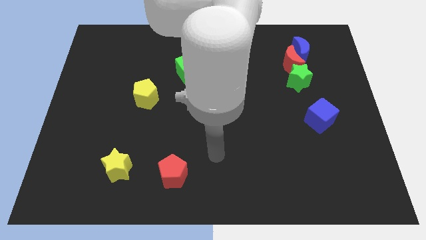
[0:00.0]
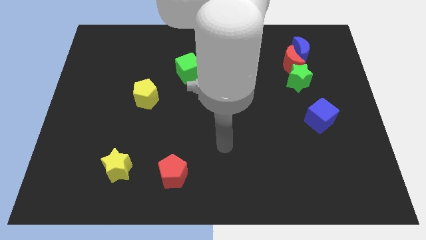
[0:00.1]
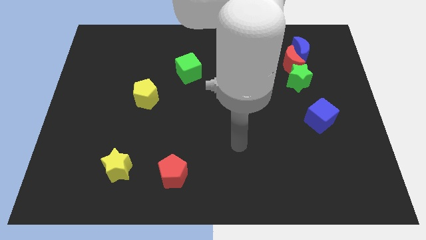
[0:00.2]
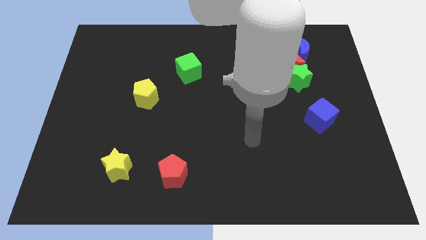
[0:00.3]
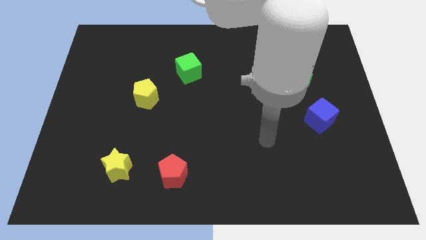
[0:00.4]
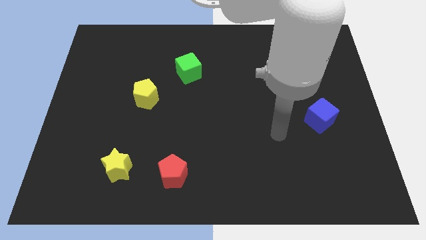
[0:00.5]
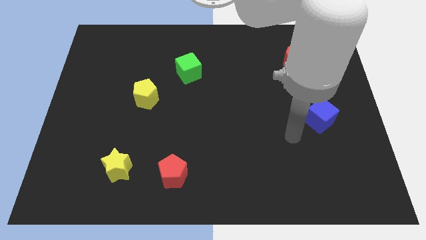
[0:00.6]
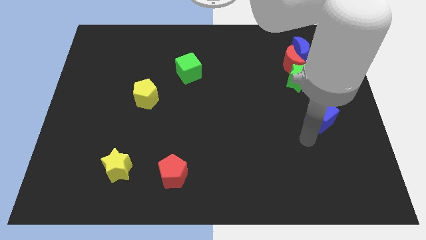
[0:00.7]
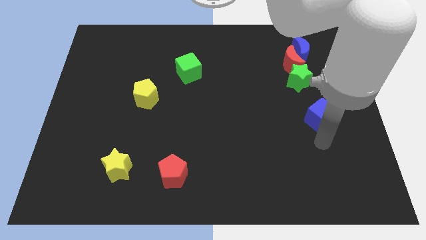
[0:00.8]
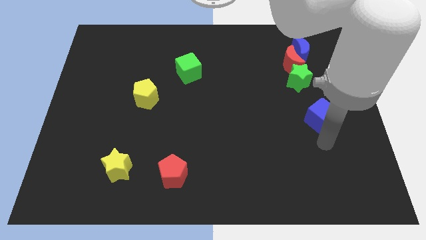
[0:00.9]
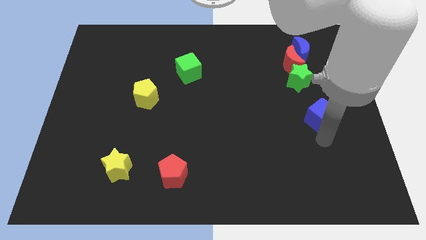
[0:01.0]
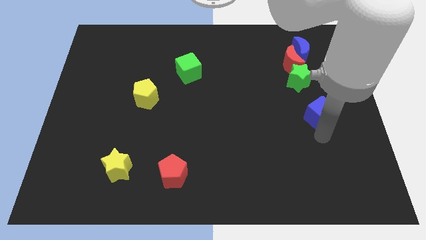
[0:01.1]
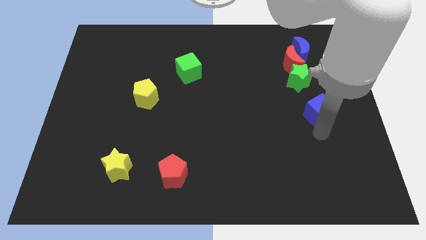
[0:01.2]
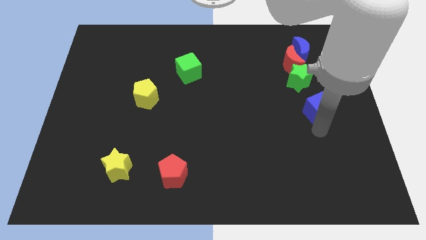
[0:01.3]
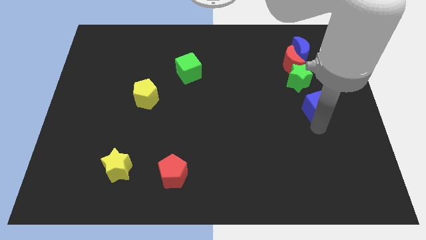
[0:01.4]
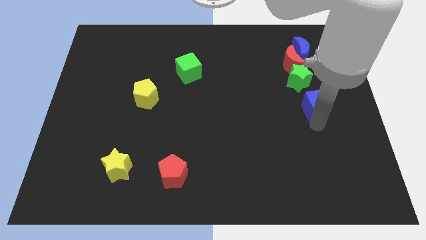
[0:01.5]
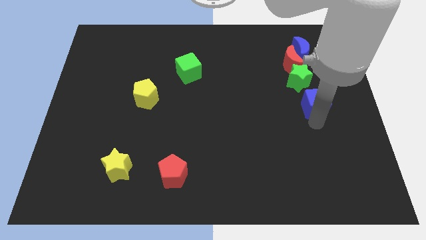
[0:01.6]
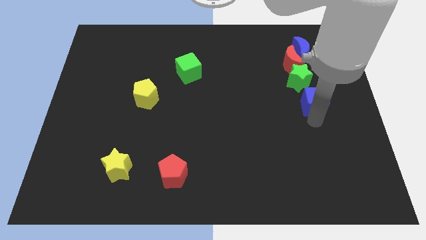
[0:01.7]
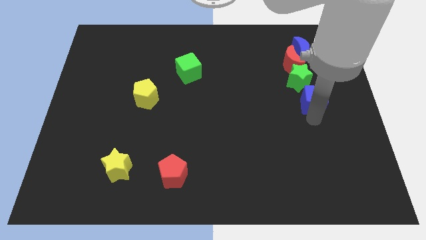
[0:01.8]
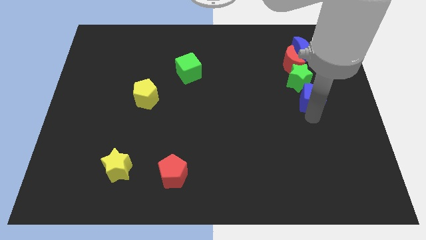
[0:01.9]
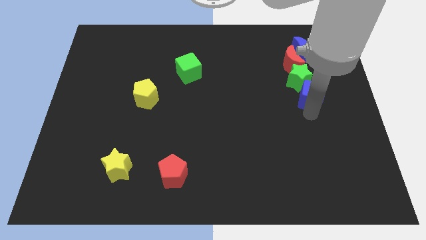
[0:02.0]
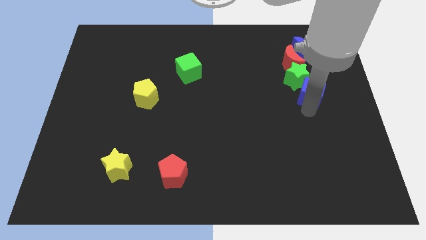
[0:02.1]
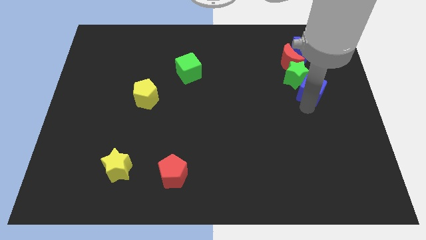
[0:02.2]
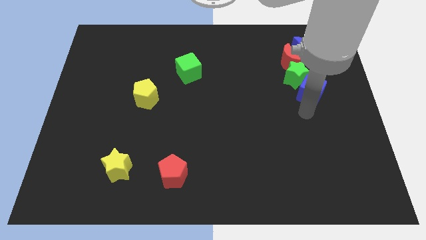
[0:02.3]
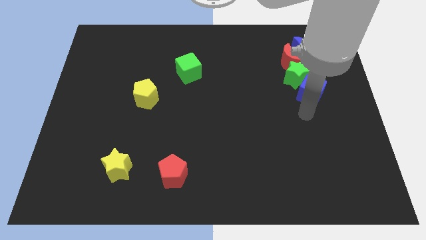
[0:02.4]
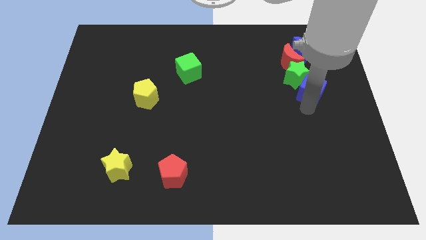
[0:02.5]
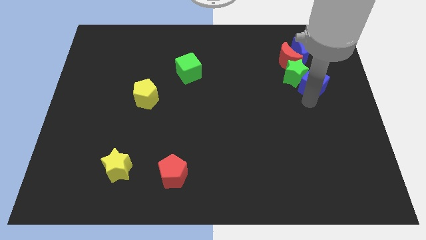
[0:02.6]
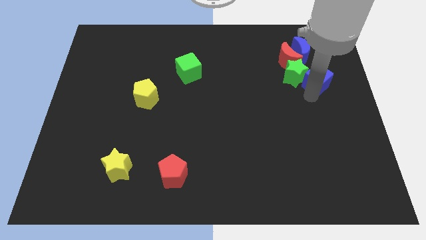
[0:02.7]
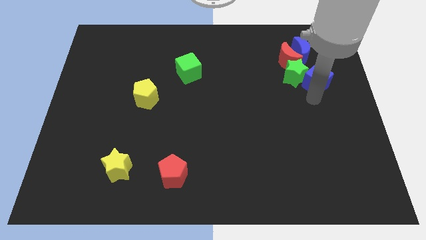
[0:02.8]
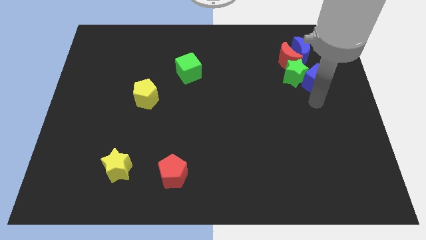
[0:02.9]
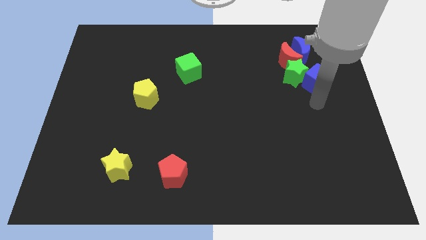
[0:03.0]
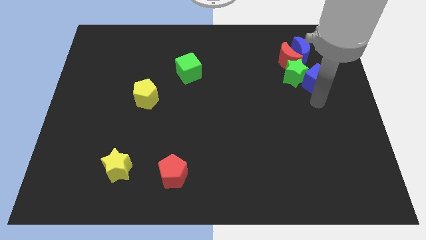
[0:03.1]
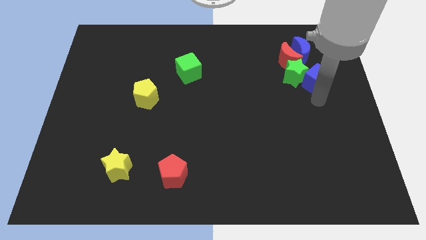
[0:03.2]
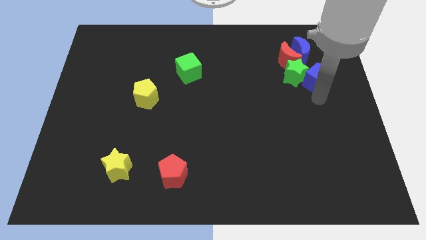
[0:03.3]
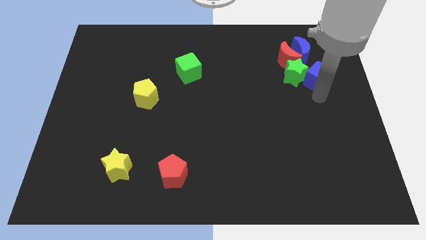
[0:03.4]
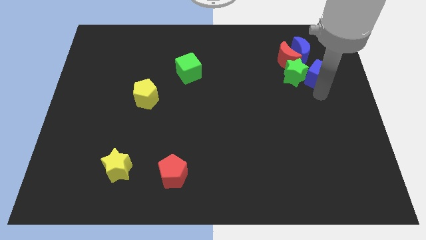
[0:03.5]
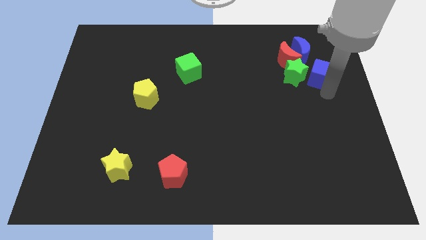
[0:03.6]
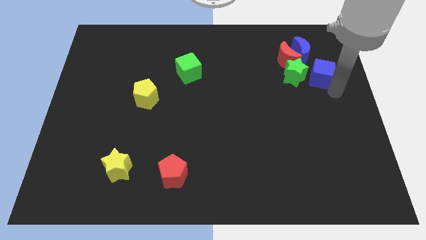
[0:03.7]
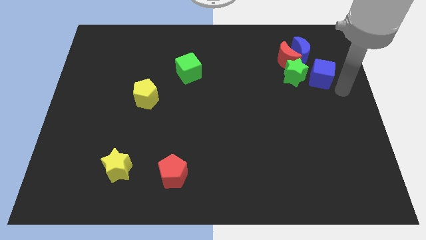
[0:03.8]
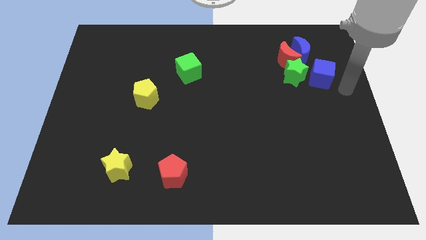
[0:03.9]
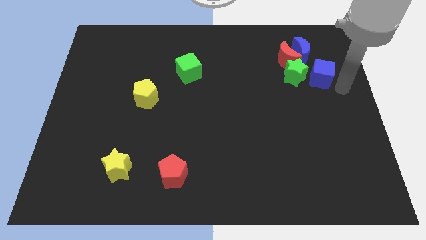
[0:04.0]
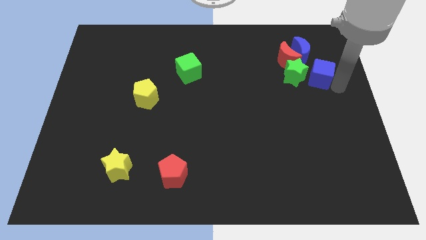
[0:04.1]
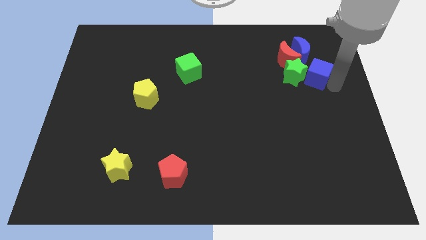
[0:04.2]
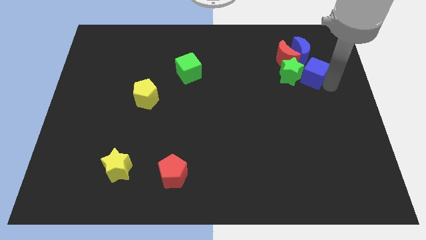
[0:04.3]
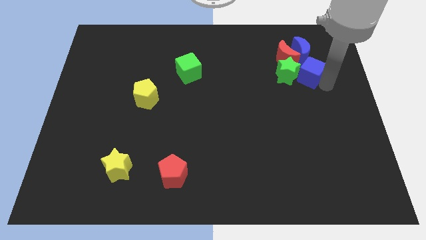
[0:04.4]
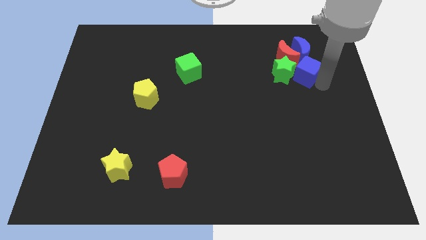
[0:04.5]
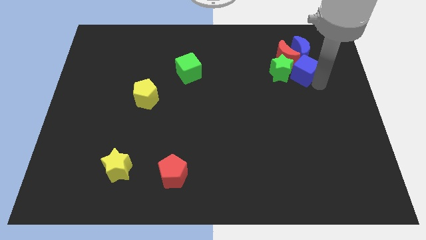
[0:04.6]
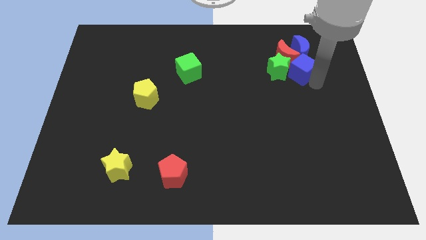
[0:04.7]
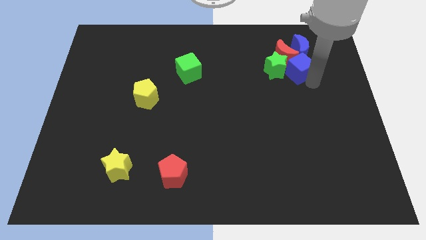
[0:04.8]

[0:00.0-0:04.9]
push the blue cube close to the red moon

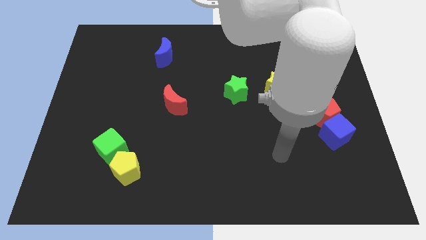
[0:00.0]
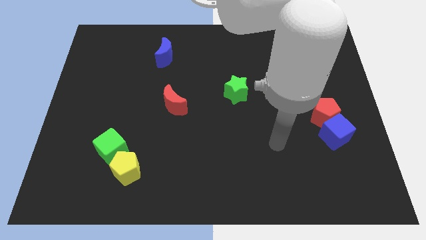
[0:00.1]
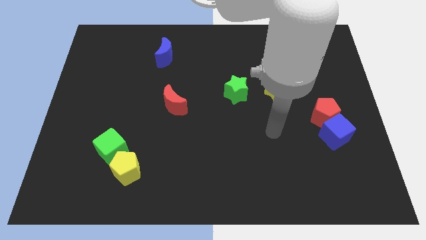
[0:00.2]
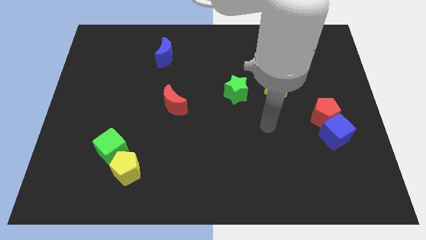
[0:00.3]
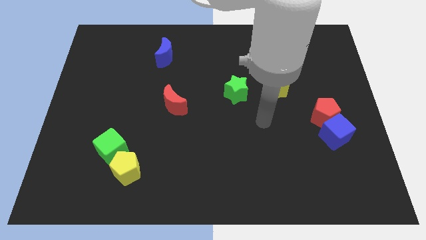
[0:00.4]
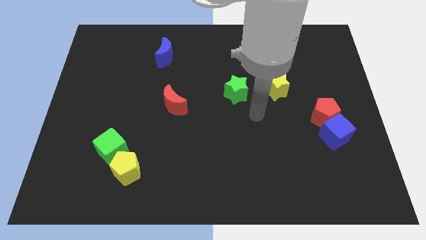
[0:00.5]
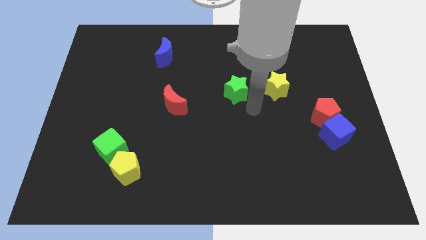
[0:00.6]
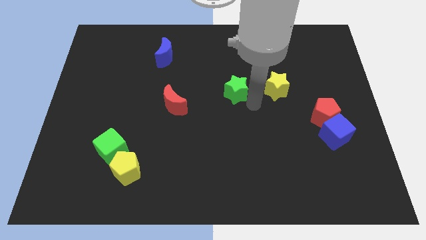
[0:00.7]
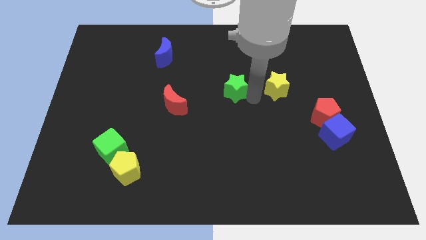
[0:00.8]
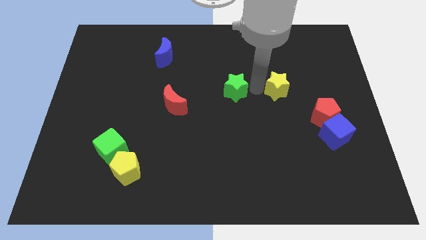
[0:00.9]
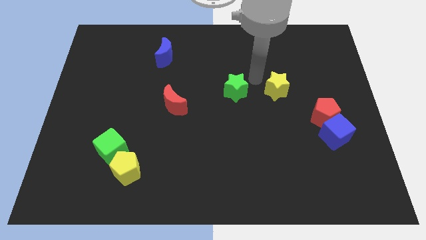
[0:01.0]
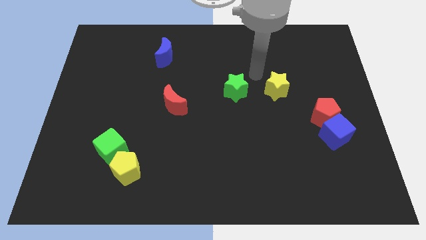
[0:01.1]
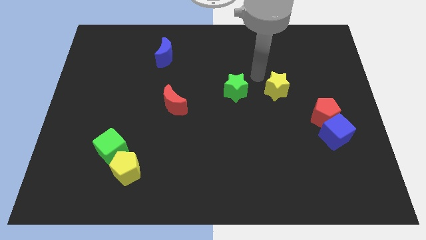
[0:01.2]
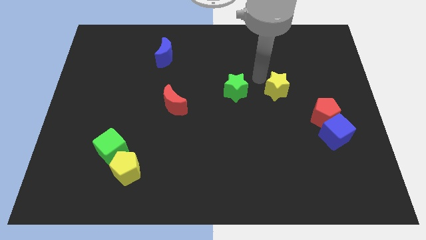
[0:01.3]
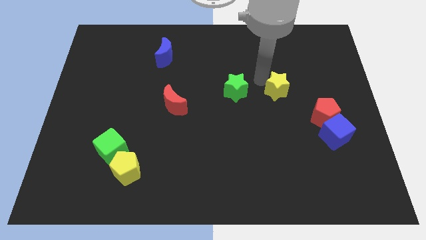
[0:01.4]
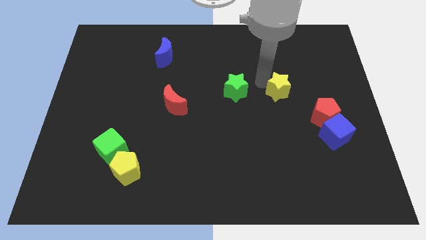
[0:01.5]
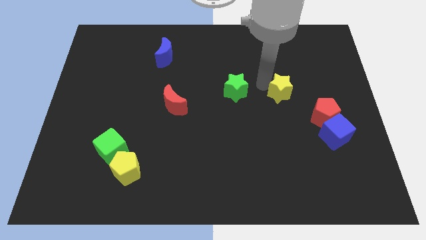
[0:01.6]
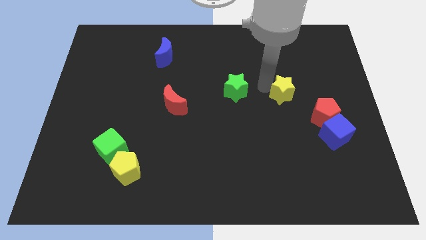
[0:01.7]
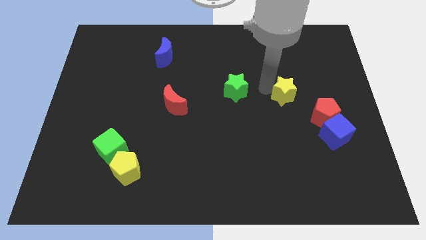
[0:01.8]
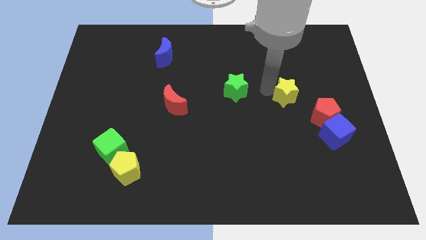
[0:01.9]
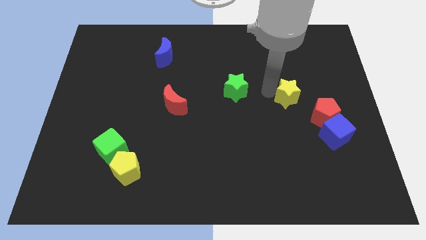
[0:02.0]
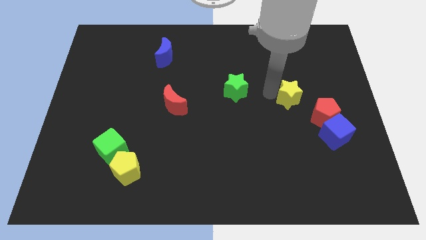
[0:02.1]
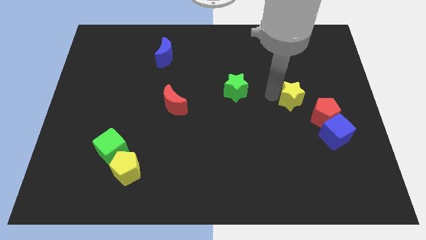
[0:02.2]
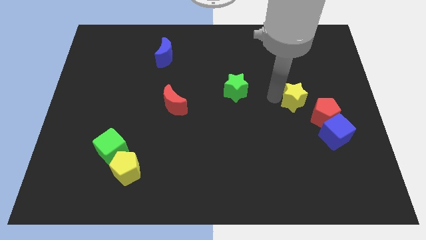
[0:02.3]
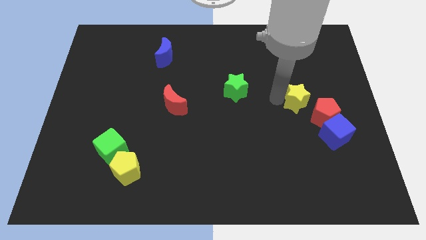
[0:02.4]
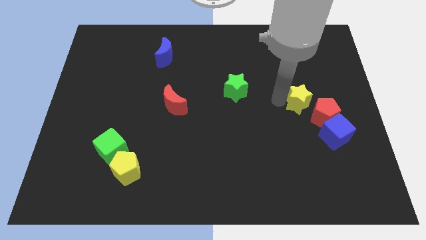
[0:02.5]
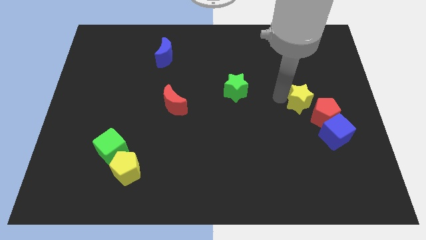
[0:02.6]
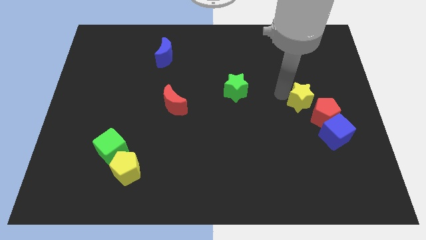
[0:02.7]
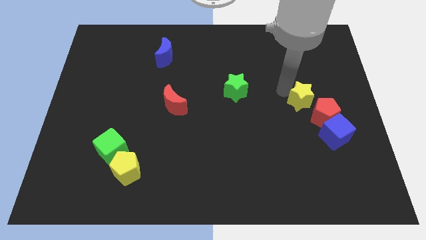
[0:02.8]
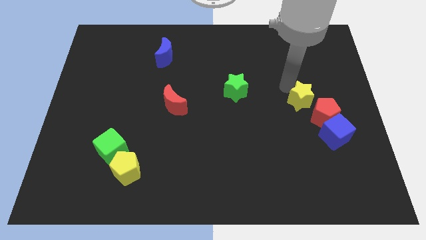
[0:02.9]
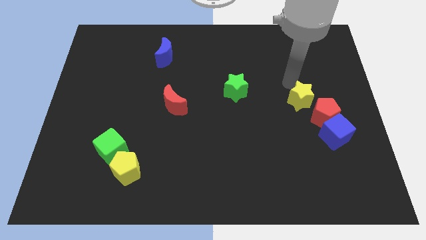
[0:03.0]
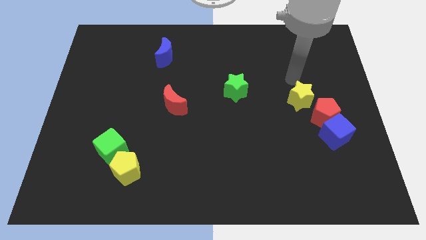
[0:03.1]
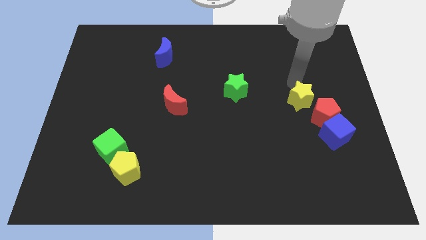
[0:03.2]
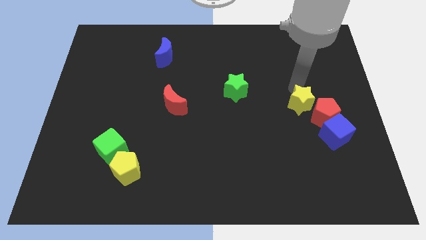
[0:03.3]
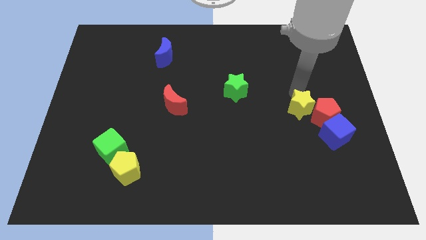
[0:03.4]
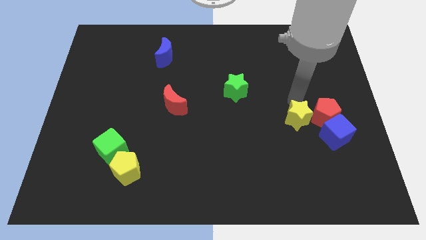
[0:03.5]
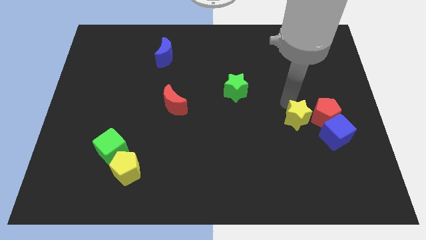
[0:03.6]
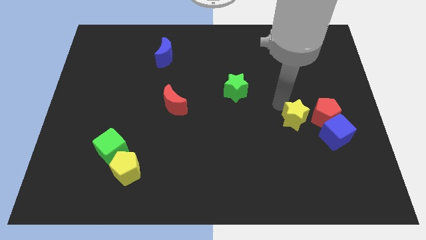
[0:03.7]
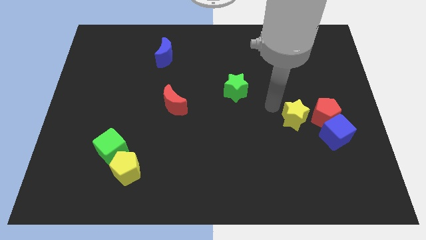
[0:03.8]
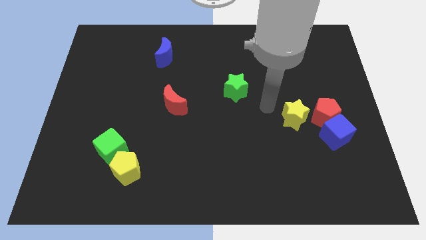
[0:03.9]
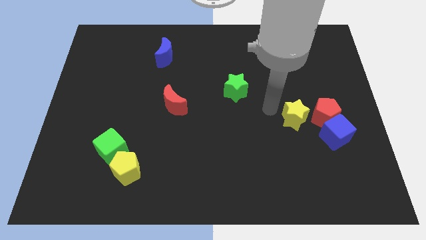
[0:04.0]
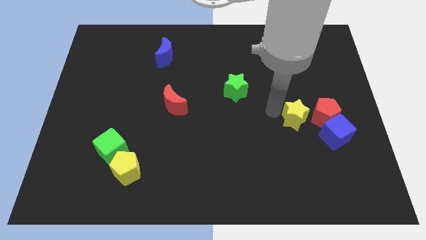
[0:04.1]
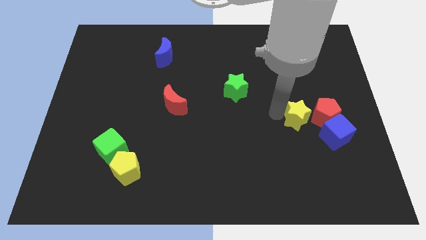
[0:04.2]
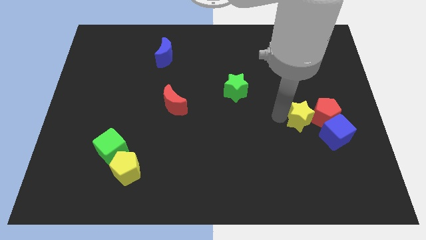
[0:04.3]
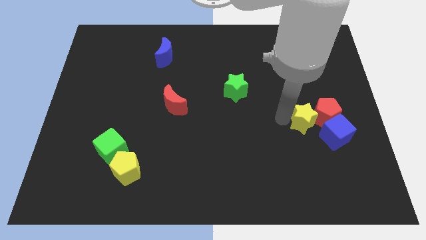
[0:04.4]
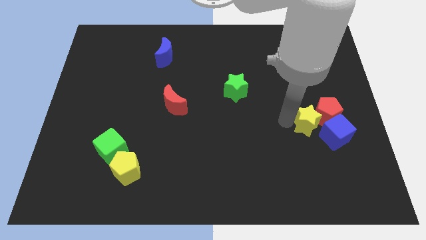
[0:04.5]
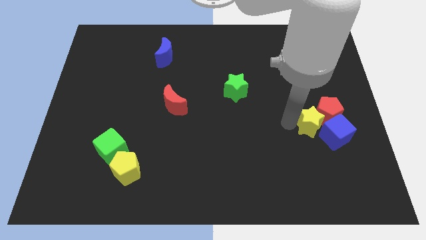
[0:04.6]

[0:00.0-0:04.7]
push the yellow star to the blue cube
